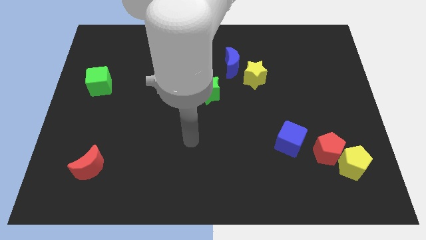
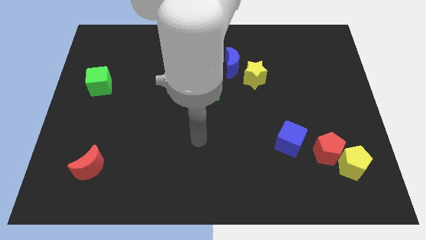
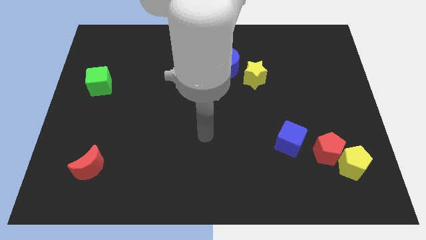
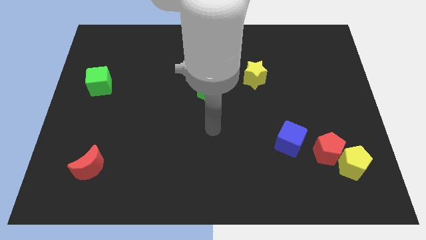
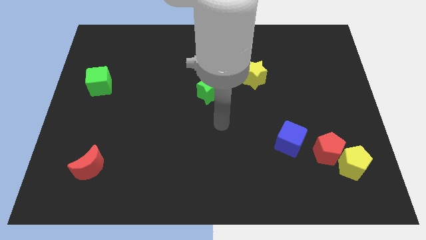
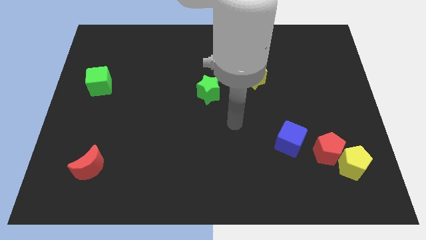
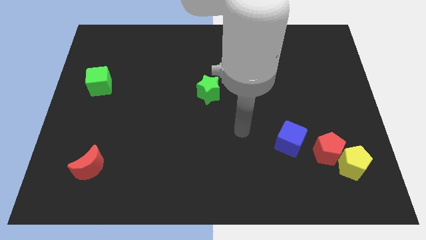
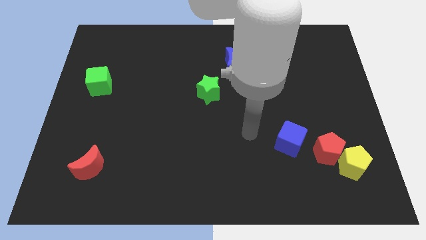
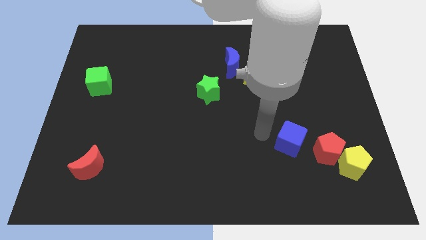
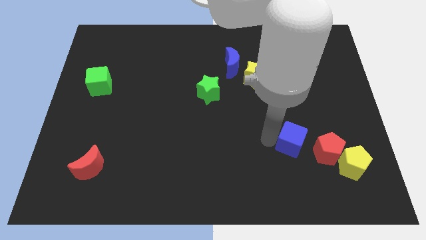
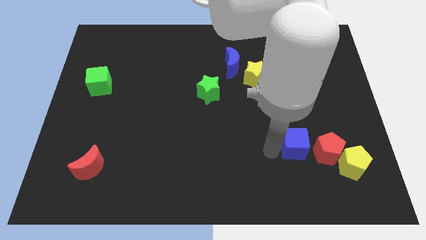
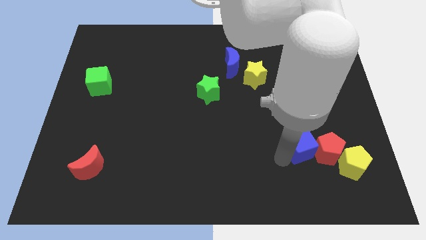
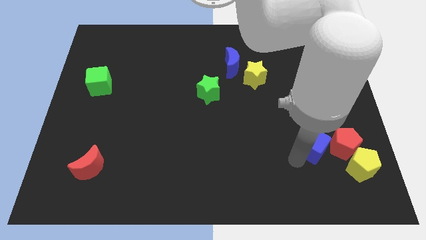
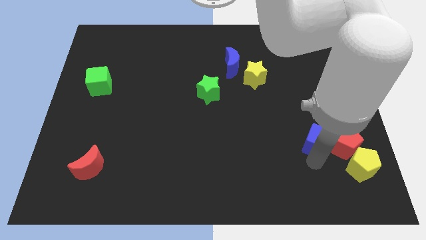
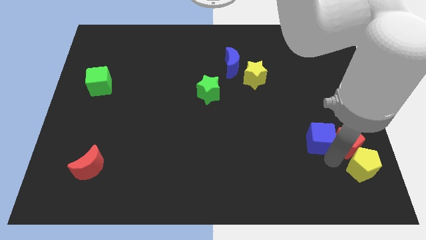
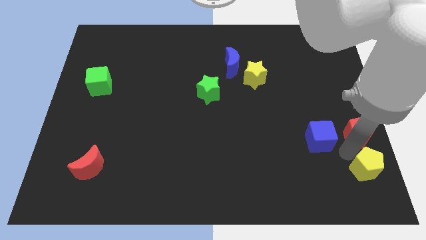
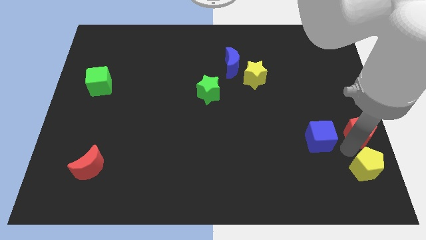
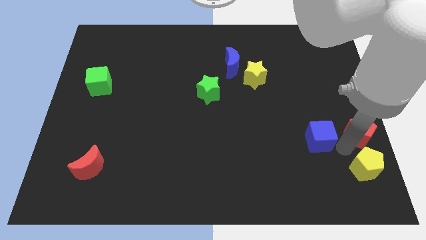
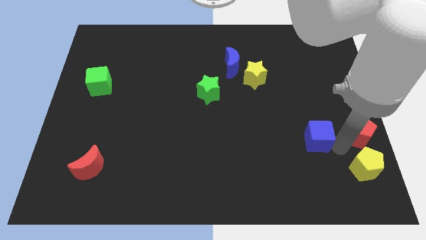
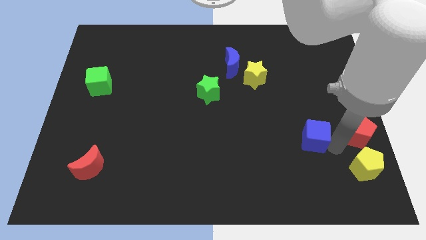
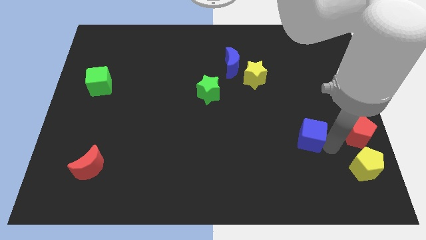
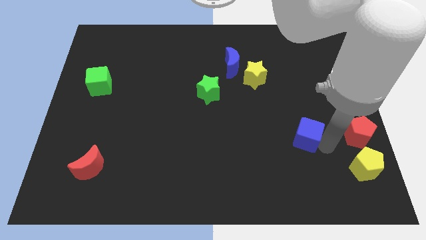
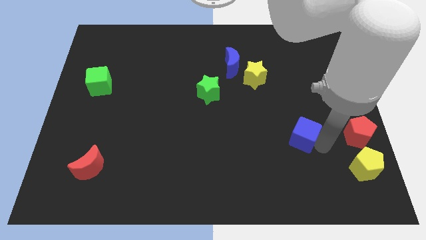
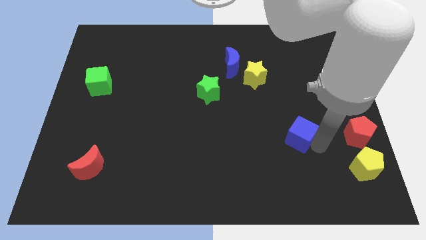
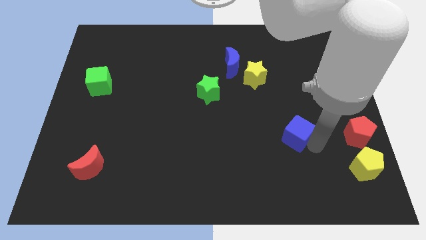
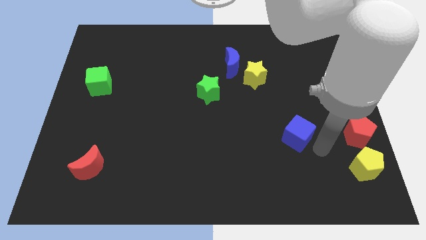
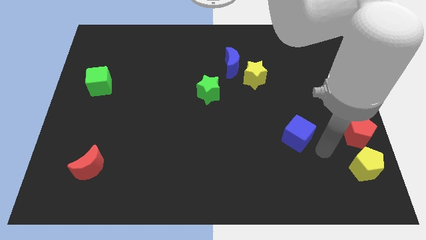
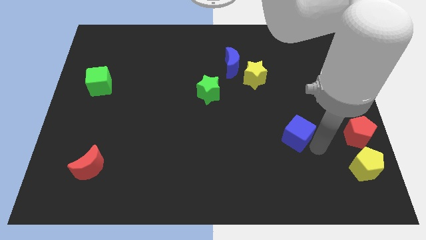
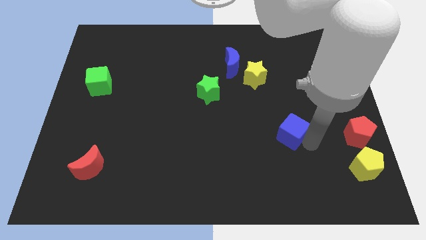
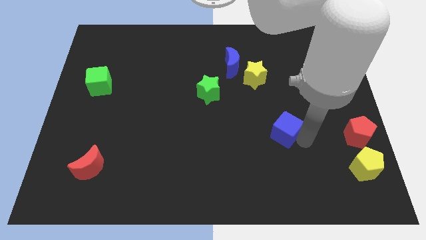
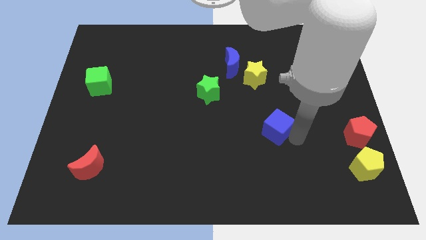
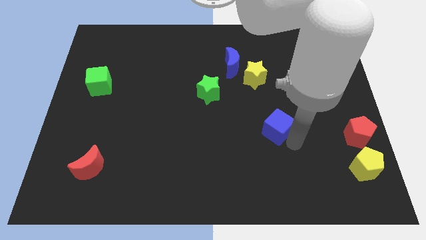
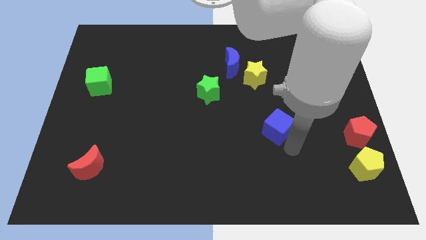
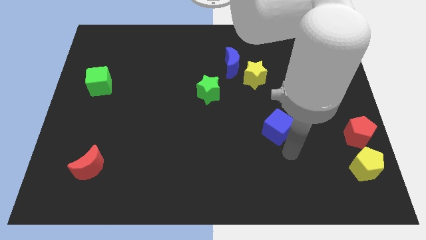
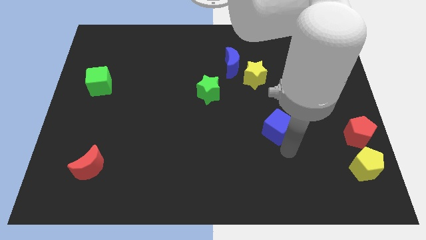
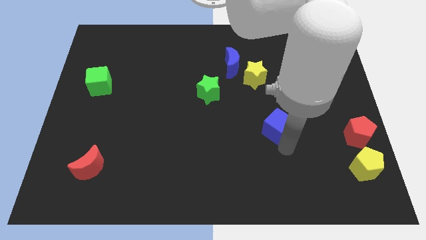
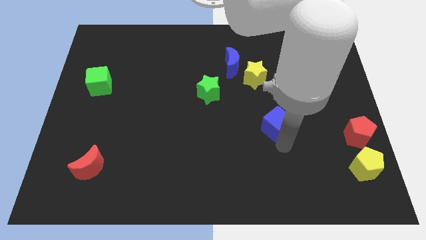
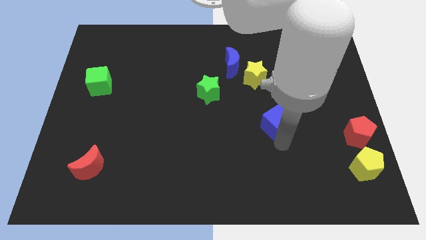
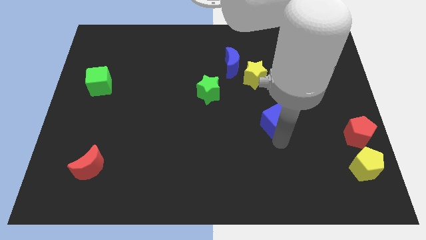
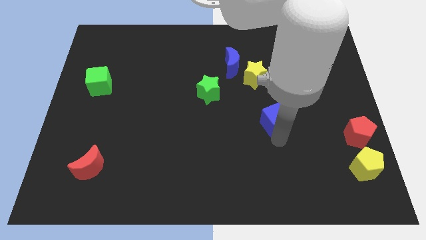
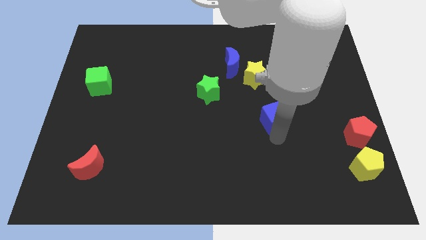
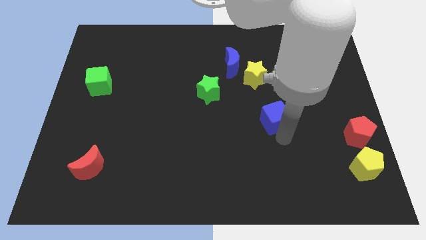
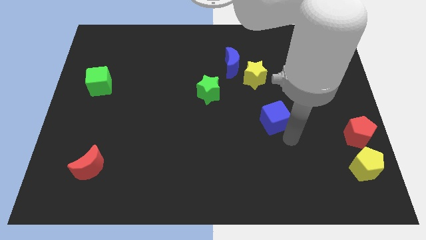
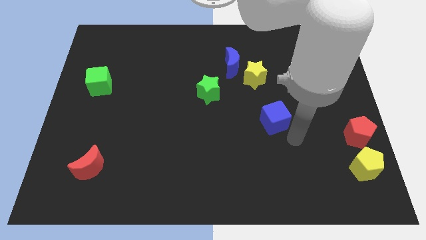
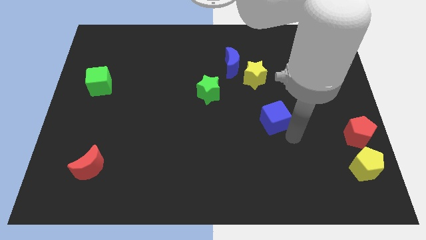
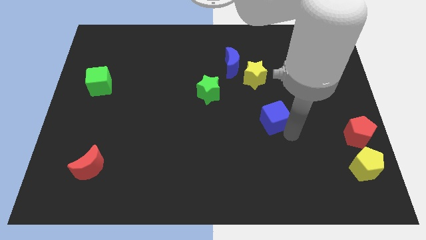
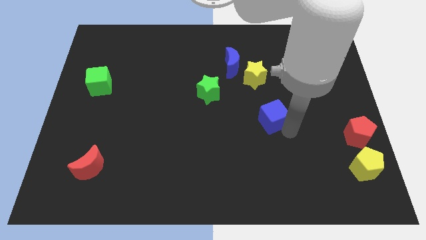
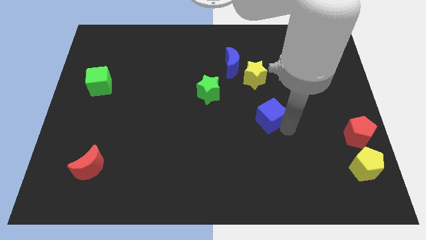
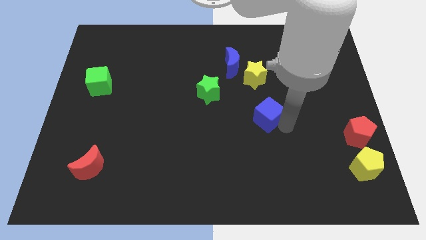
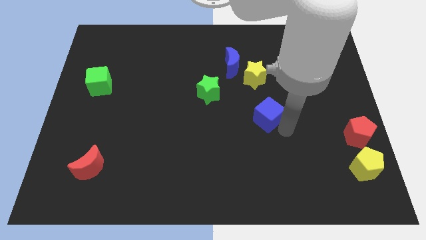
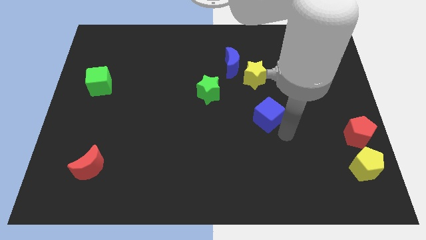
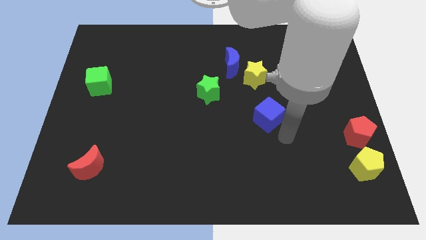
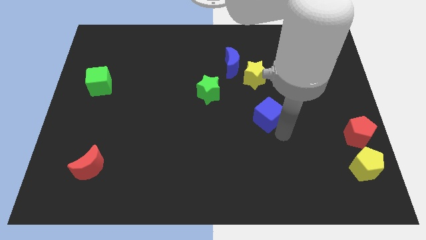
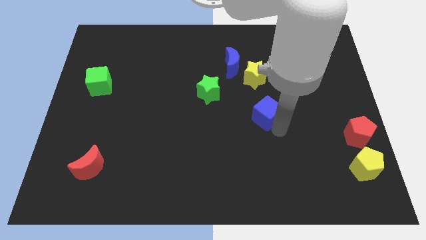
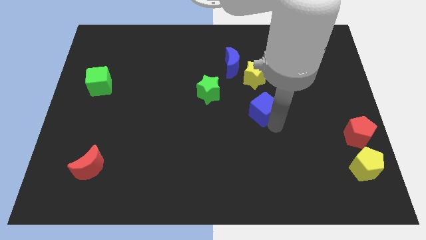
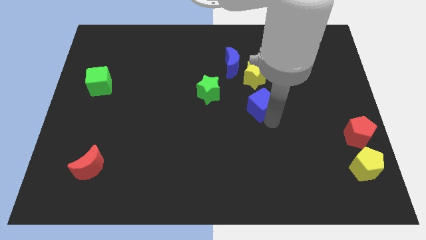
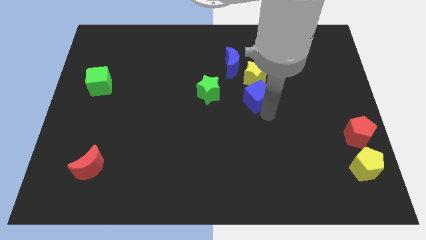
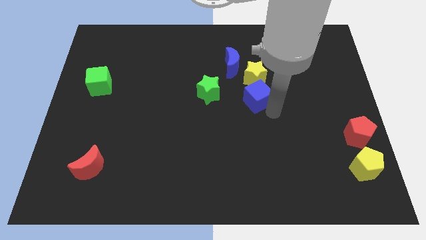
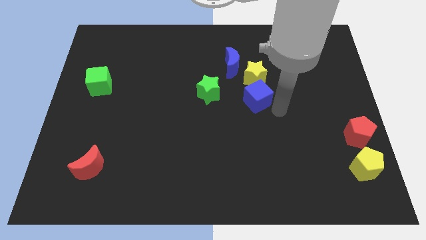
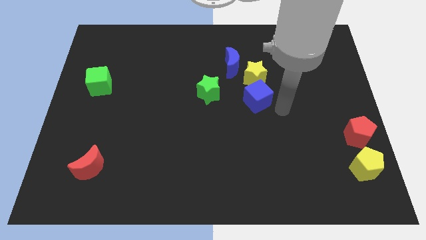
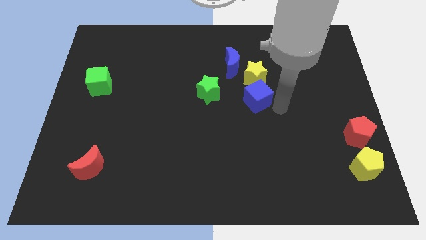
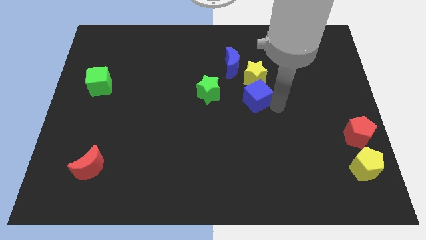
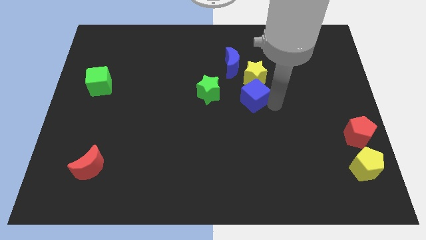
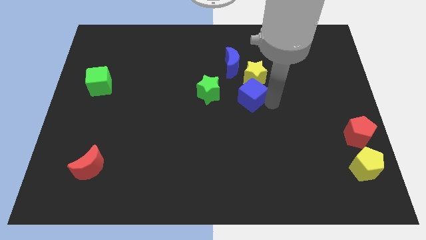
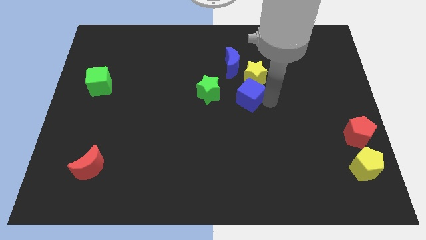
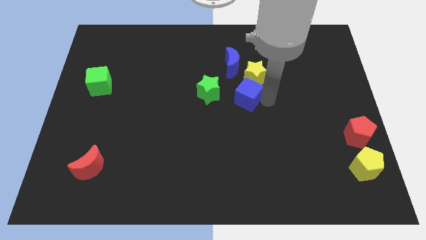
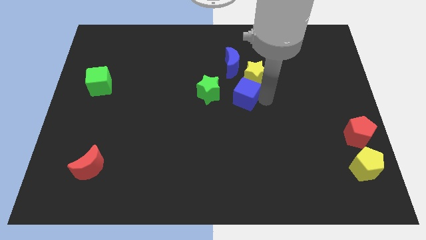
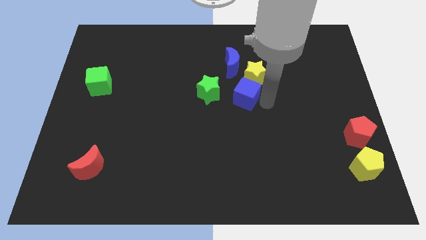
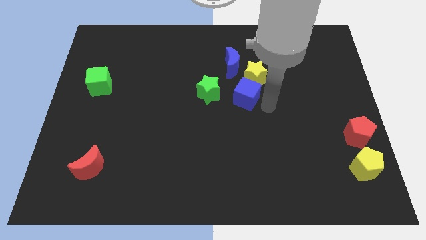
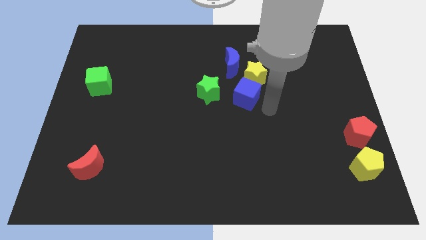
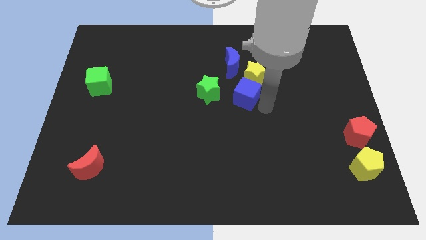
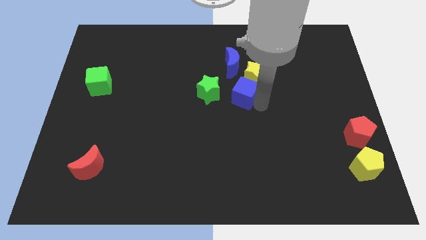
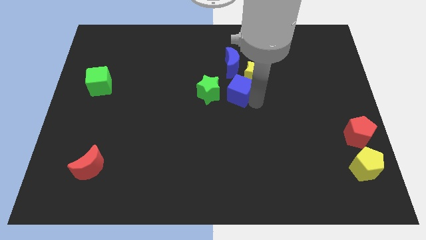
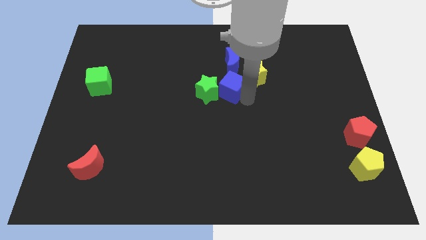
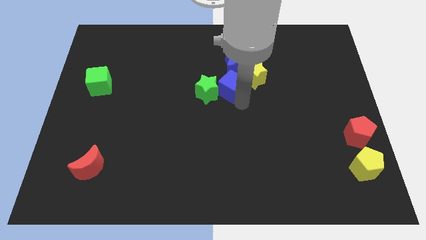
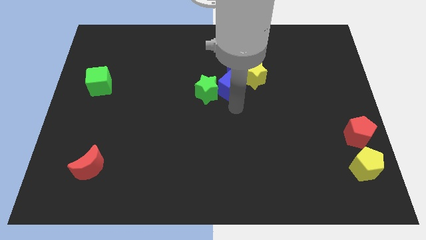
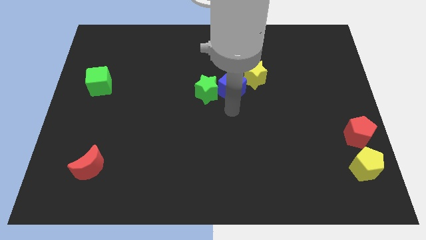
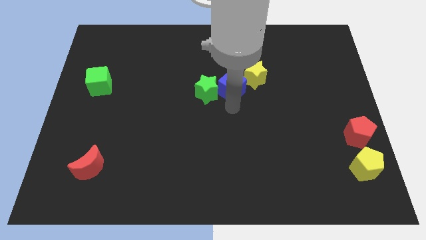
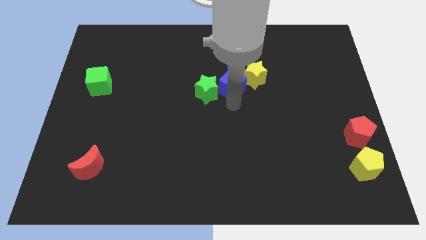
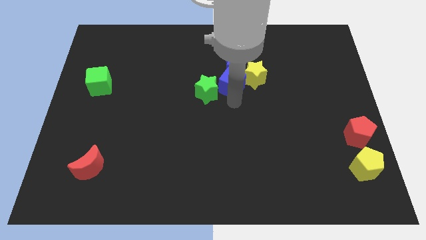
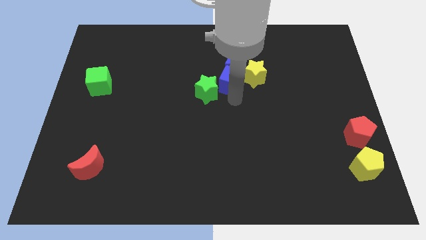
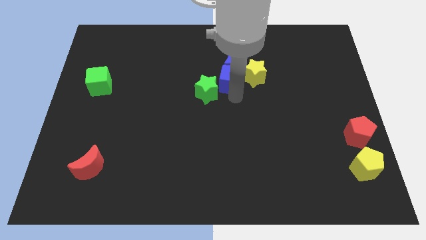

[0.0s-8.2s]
put the blue cube towards the blue moon
